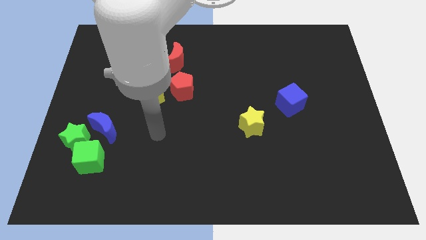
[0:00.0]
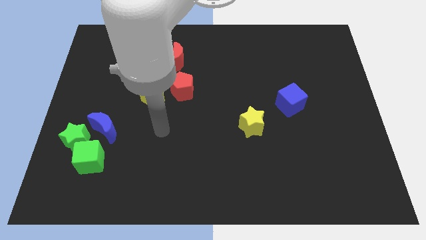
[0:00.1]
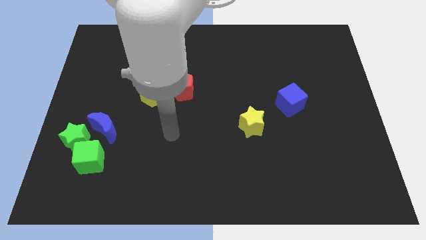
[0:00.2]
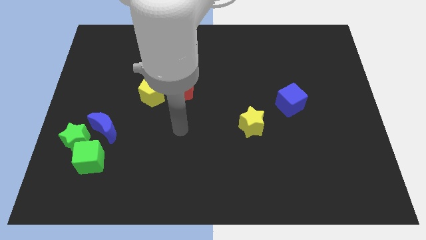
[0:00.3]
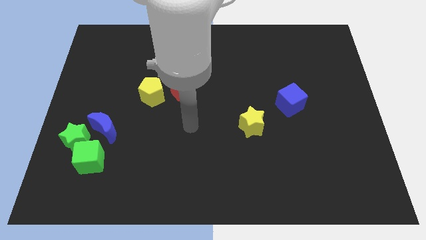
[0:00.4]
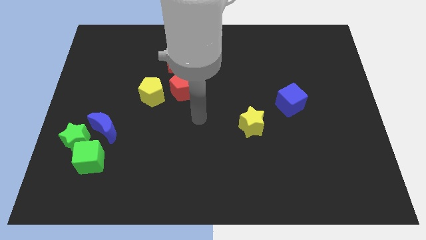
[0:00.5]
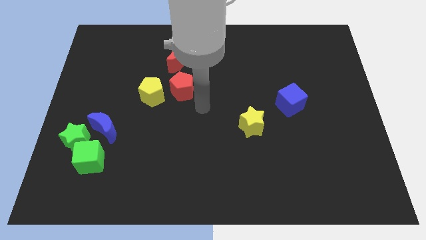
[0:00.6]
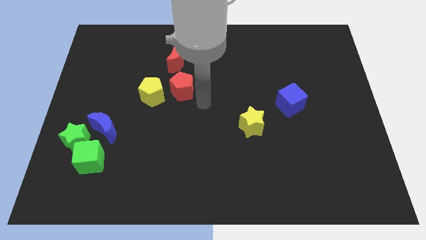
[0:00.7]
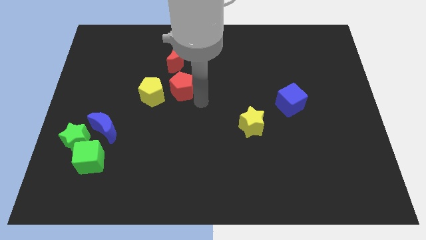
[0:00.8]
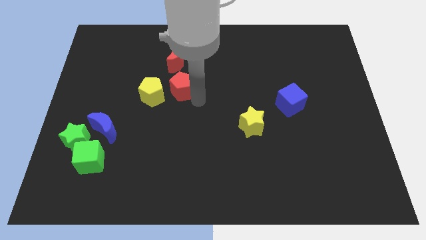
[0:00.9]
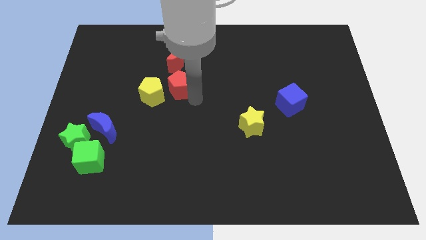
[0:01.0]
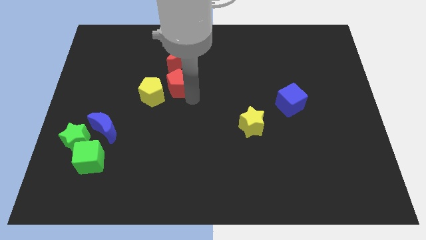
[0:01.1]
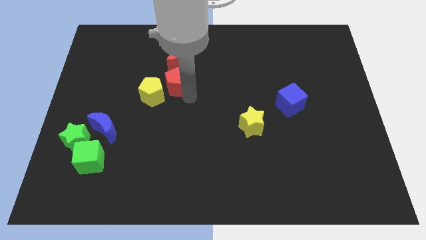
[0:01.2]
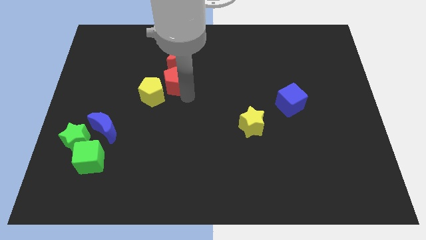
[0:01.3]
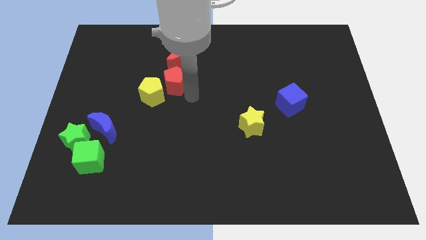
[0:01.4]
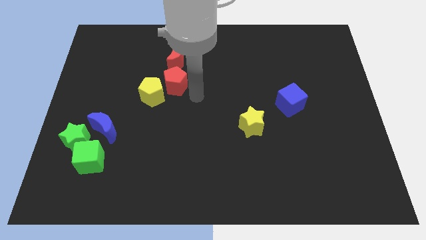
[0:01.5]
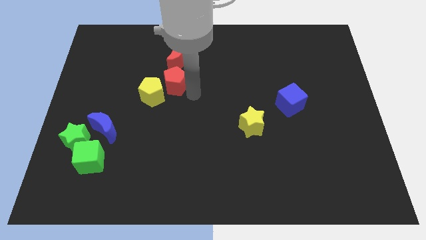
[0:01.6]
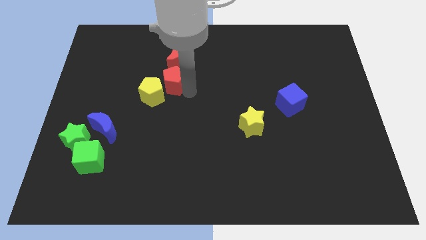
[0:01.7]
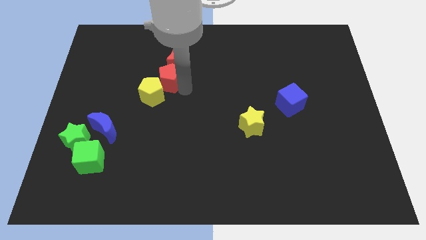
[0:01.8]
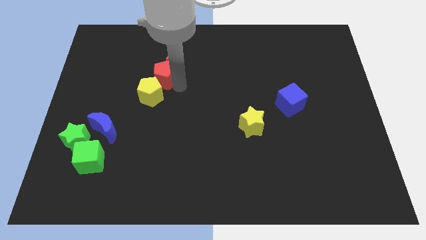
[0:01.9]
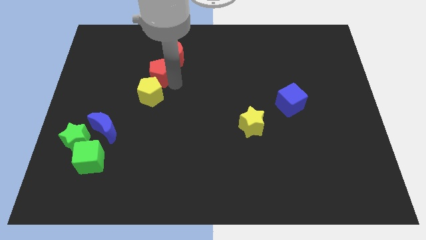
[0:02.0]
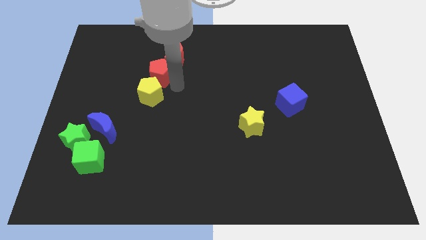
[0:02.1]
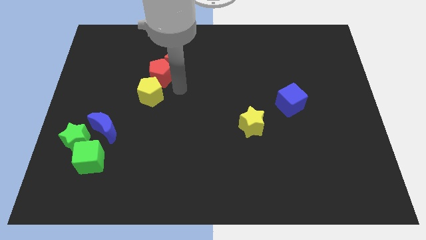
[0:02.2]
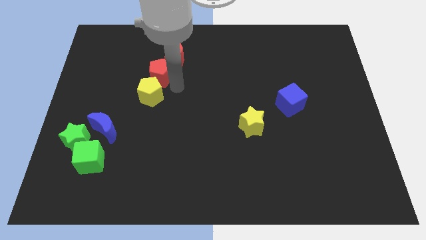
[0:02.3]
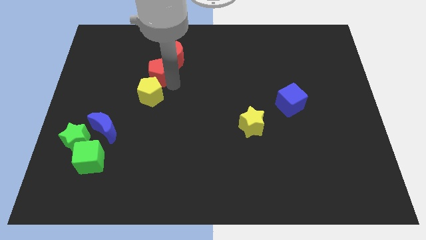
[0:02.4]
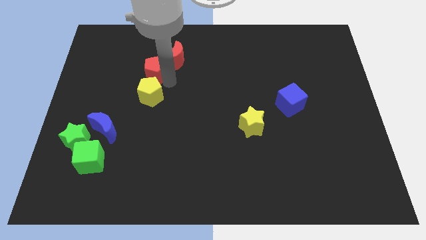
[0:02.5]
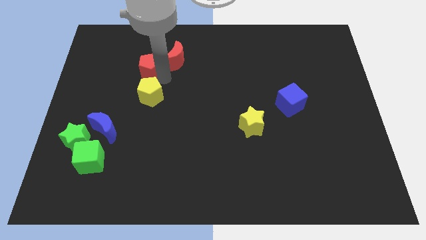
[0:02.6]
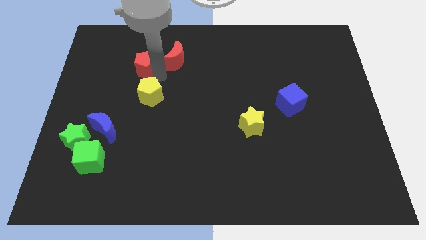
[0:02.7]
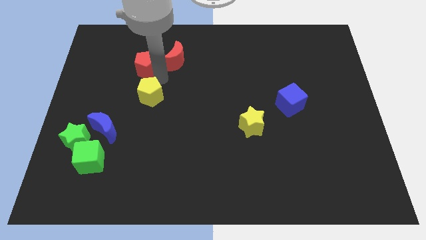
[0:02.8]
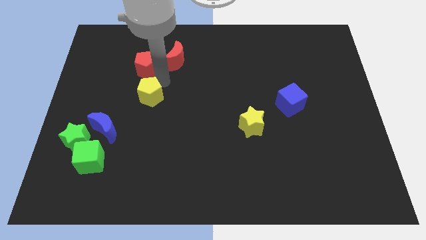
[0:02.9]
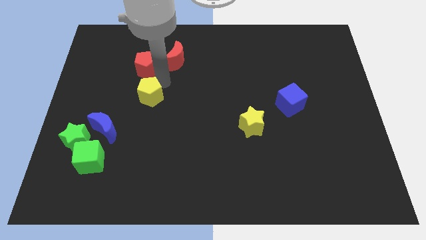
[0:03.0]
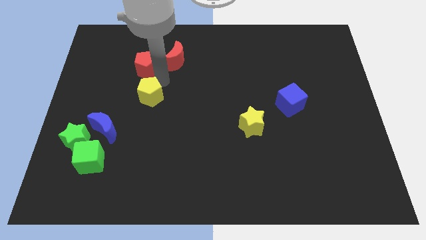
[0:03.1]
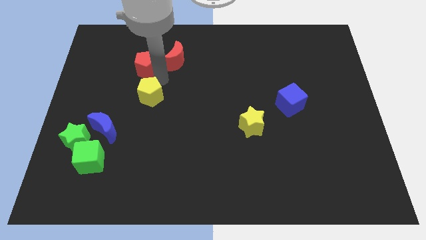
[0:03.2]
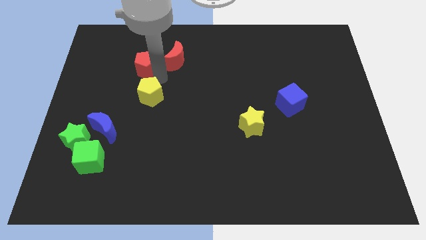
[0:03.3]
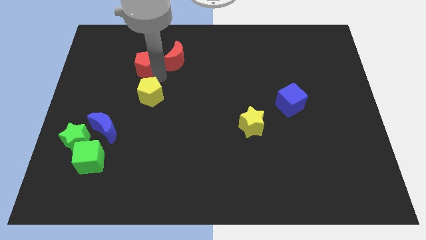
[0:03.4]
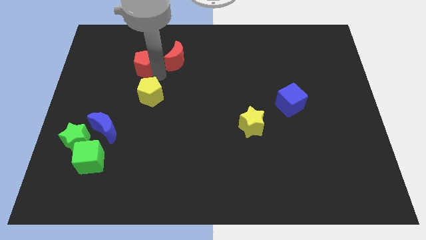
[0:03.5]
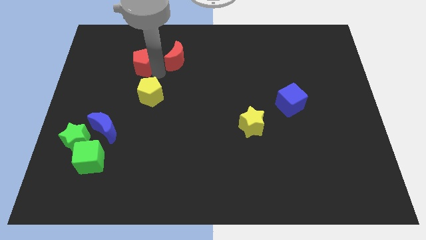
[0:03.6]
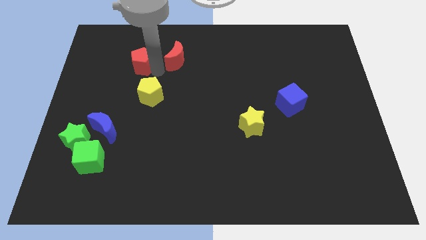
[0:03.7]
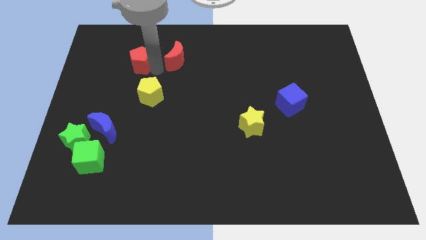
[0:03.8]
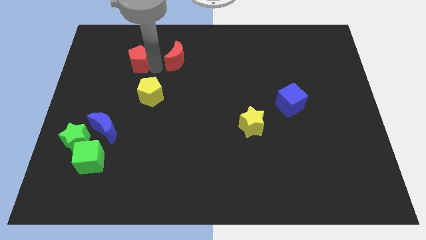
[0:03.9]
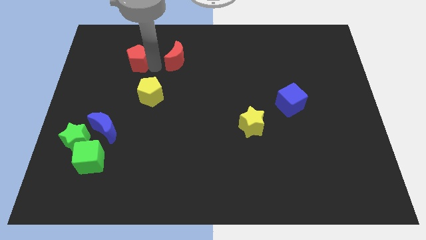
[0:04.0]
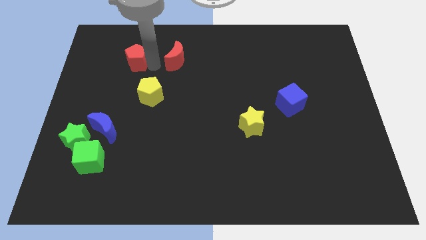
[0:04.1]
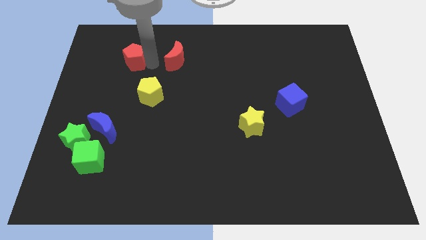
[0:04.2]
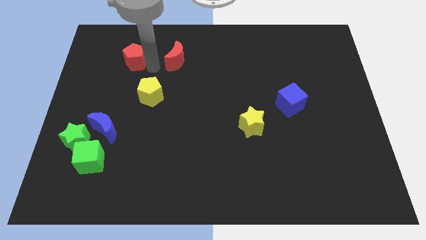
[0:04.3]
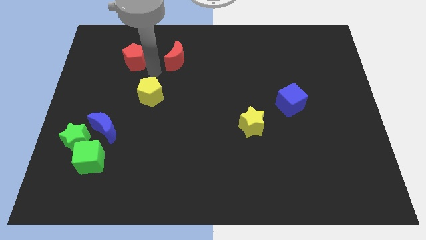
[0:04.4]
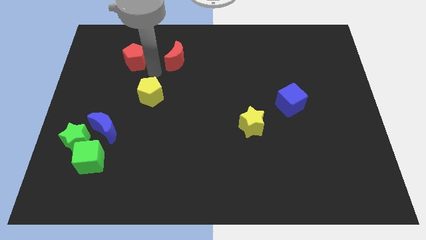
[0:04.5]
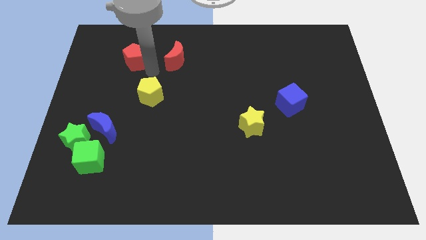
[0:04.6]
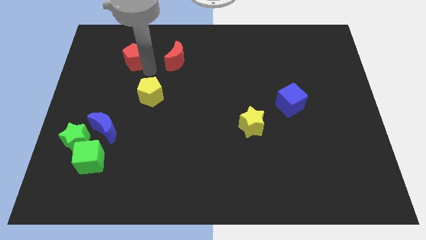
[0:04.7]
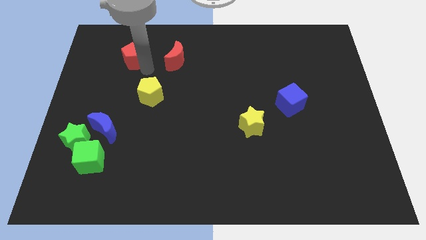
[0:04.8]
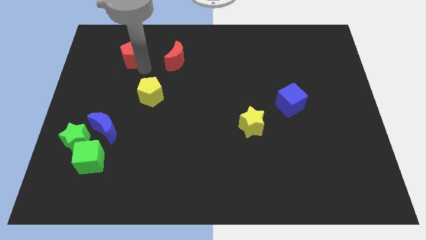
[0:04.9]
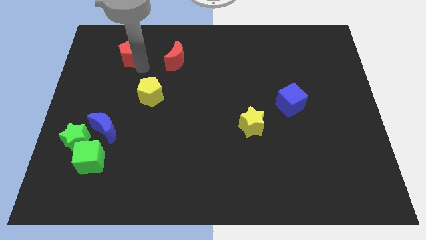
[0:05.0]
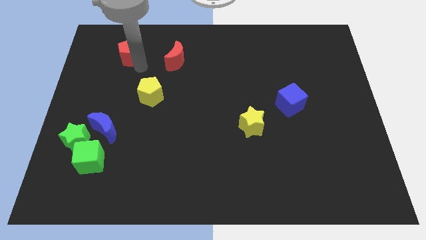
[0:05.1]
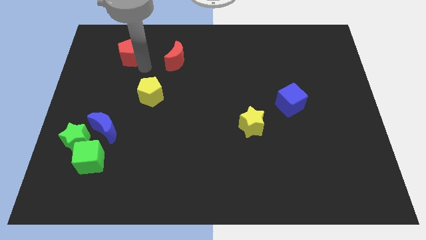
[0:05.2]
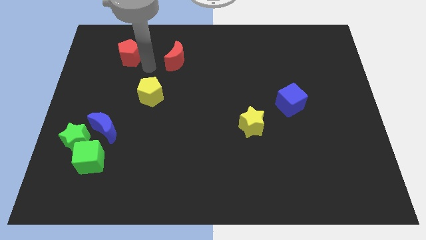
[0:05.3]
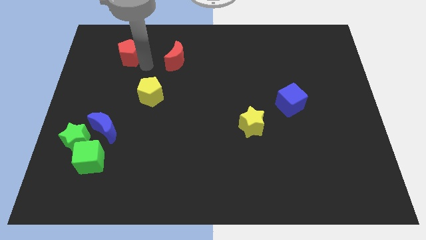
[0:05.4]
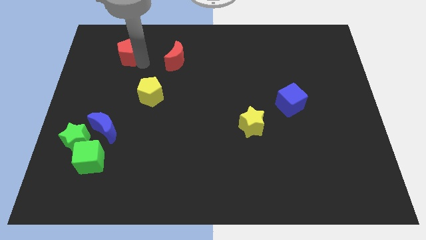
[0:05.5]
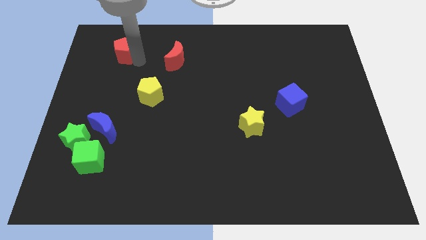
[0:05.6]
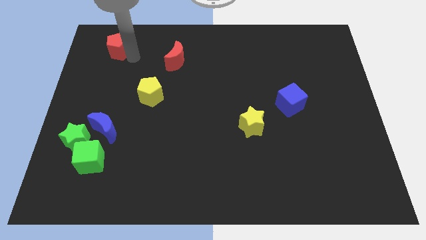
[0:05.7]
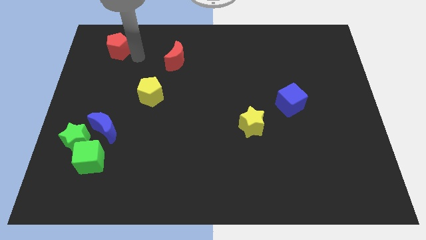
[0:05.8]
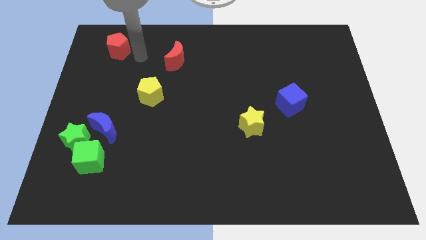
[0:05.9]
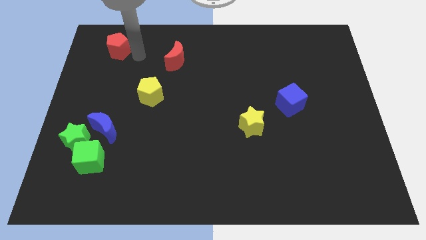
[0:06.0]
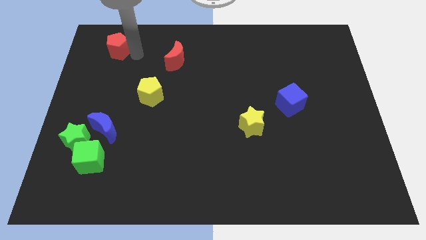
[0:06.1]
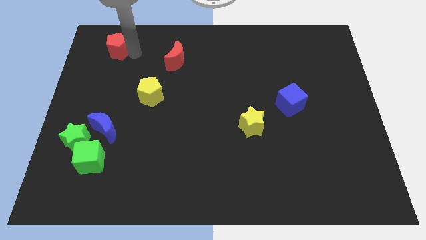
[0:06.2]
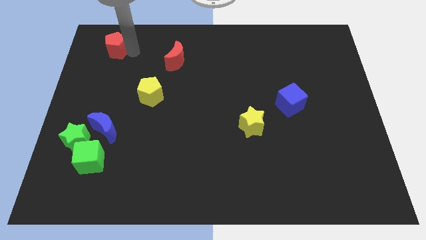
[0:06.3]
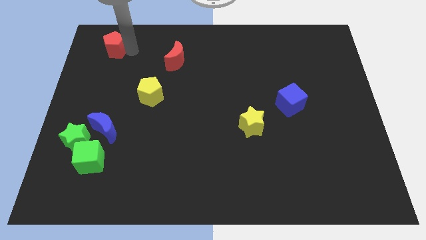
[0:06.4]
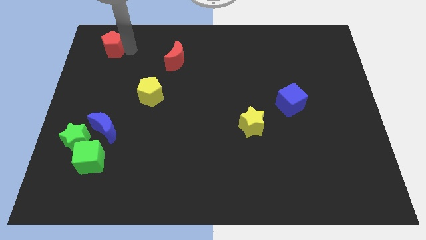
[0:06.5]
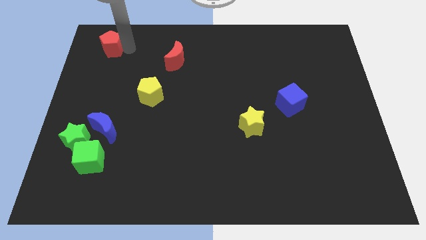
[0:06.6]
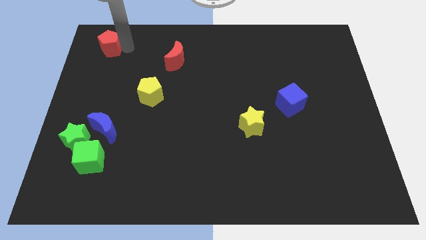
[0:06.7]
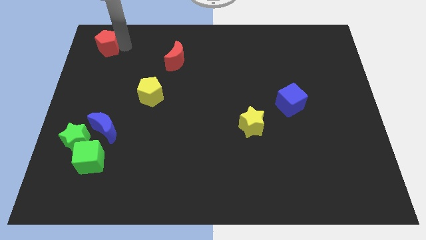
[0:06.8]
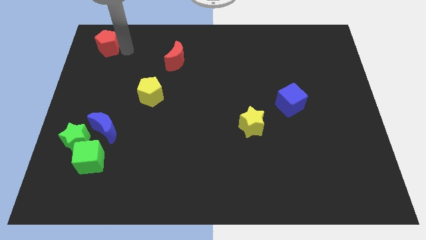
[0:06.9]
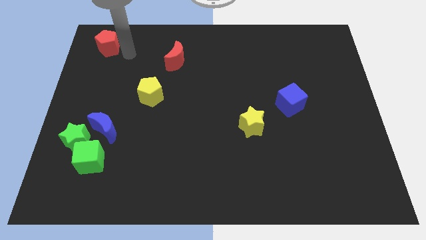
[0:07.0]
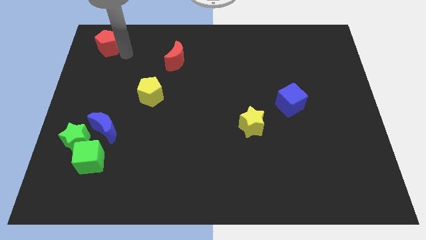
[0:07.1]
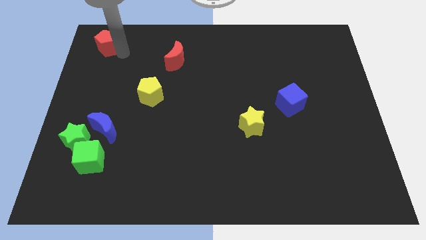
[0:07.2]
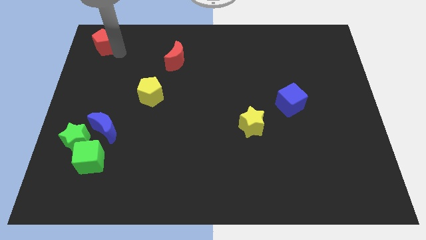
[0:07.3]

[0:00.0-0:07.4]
slide the red pentagon to the top left corner
